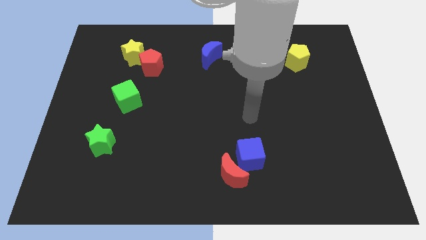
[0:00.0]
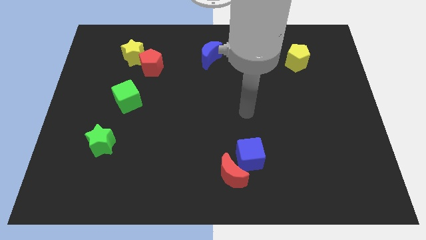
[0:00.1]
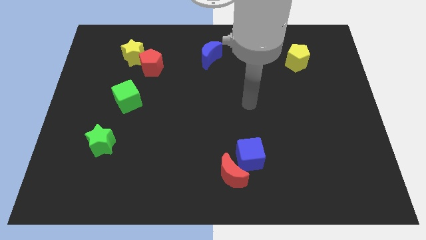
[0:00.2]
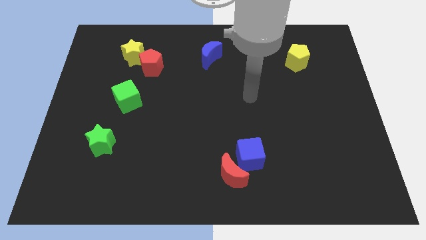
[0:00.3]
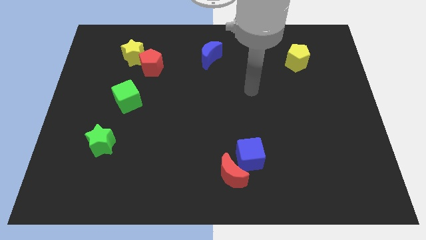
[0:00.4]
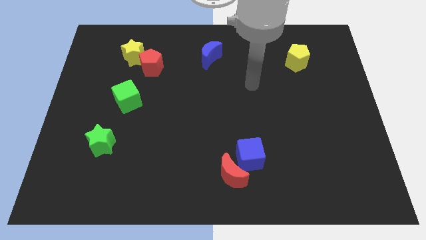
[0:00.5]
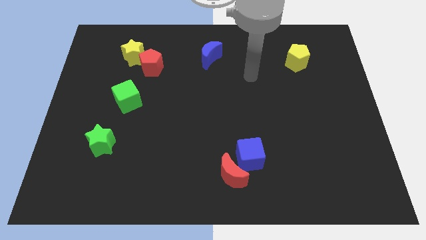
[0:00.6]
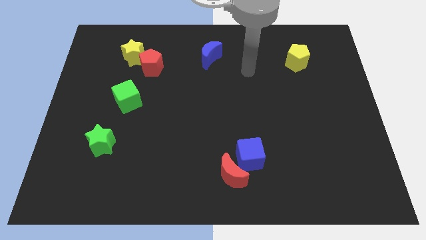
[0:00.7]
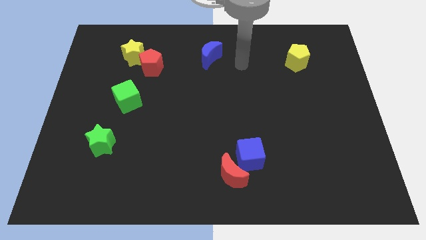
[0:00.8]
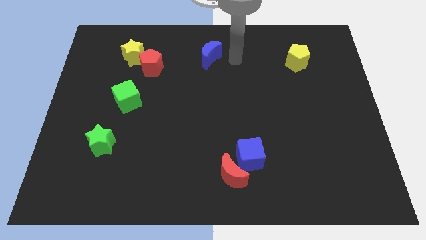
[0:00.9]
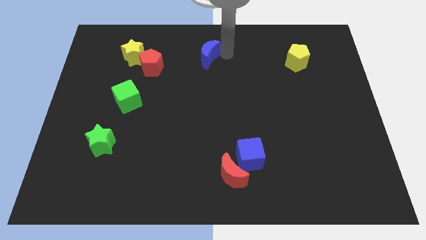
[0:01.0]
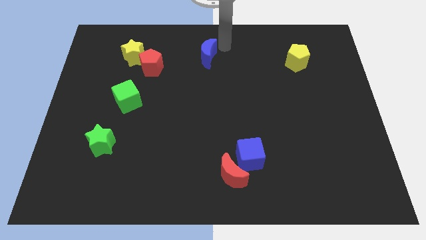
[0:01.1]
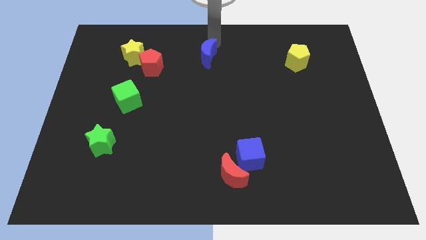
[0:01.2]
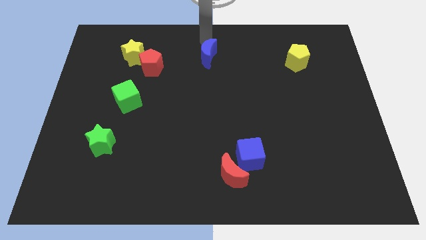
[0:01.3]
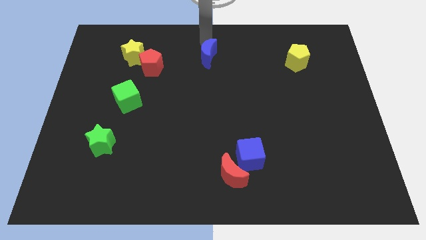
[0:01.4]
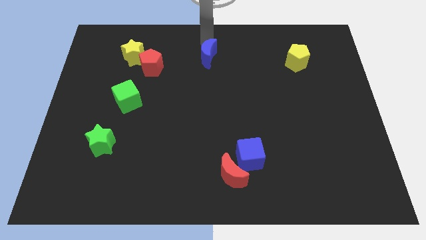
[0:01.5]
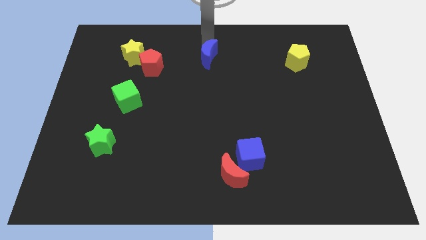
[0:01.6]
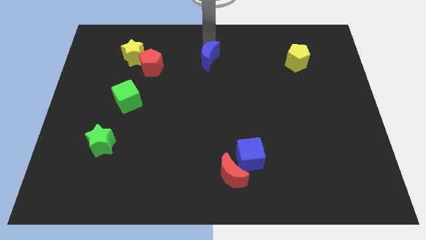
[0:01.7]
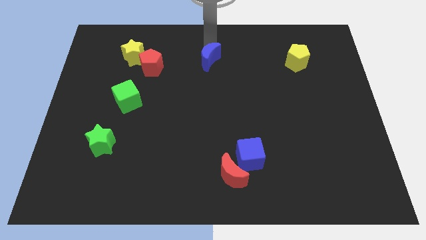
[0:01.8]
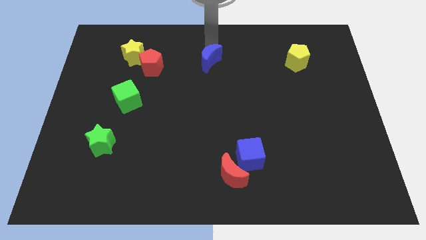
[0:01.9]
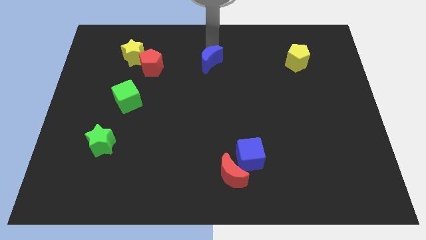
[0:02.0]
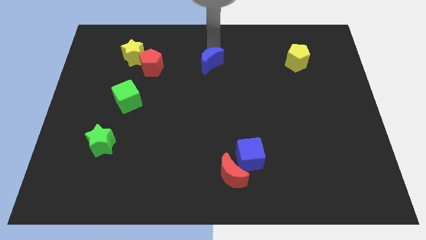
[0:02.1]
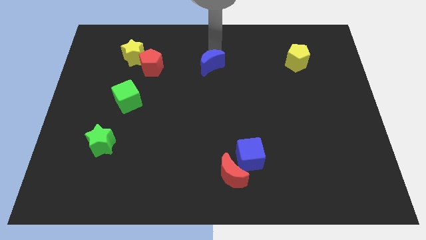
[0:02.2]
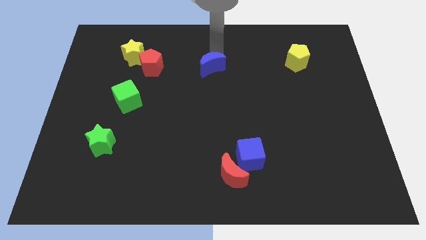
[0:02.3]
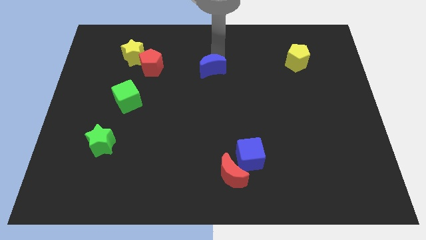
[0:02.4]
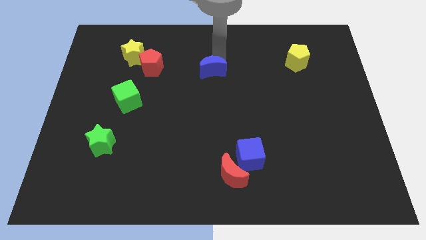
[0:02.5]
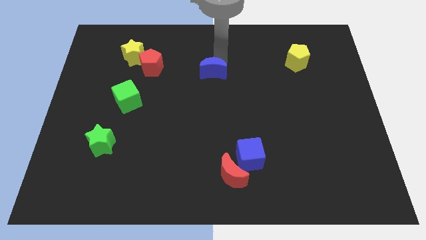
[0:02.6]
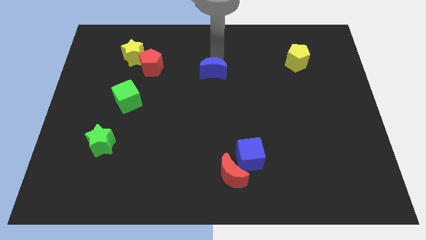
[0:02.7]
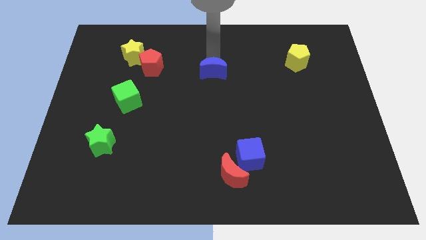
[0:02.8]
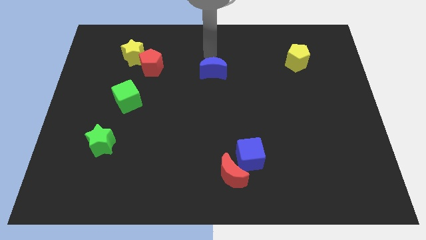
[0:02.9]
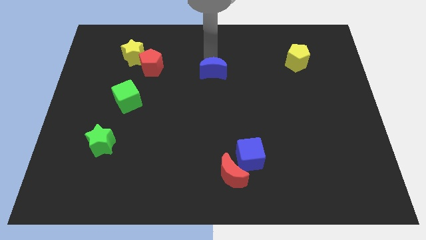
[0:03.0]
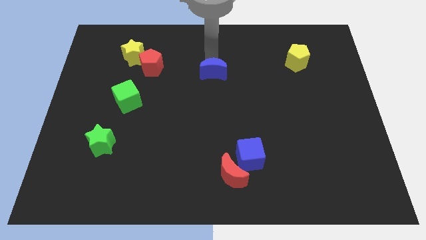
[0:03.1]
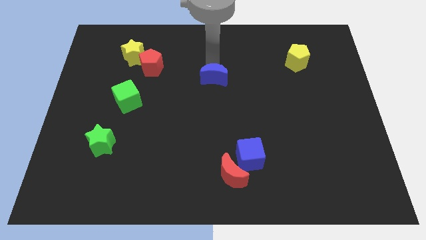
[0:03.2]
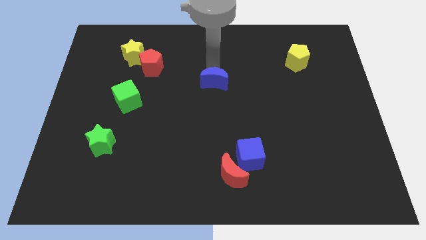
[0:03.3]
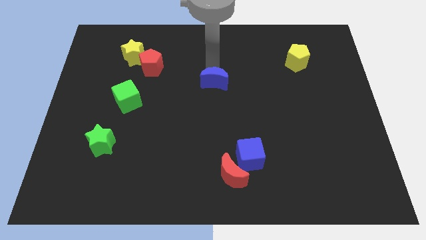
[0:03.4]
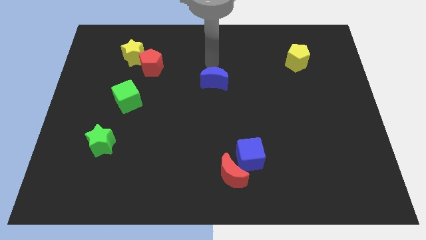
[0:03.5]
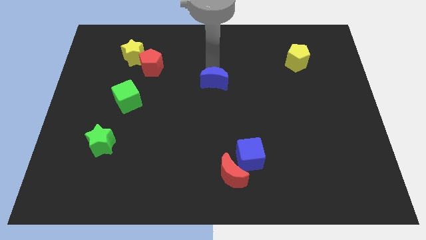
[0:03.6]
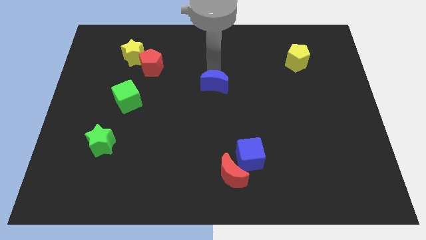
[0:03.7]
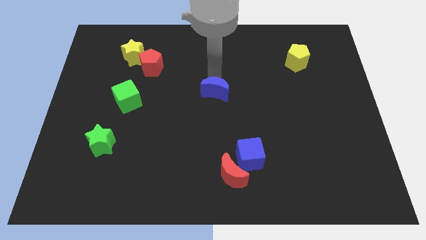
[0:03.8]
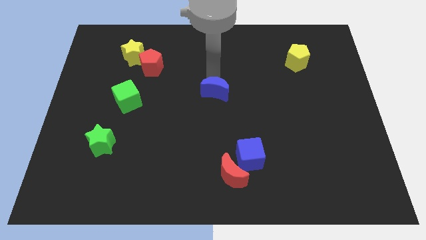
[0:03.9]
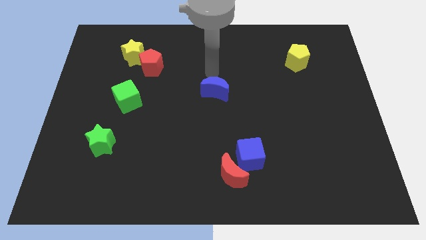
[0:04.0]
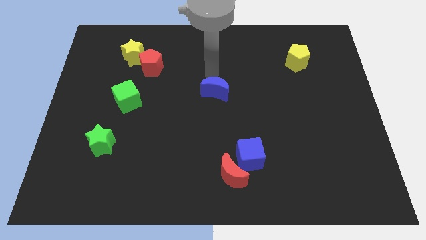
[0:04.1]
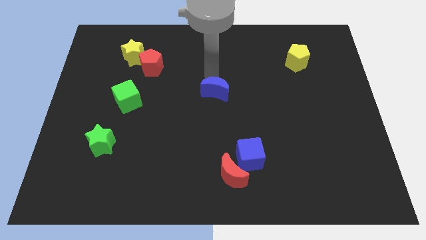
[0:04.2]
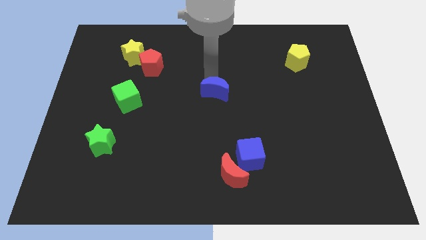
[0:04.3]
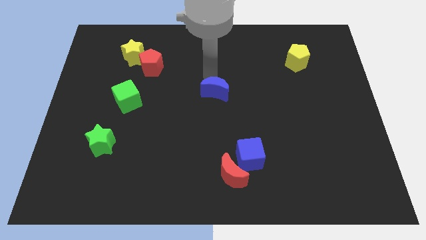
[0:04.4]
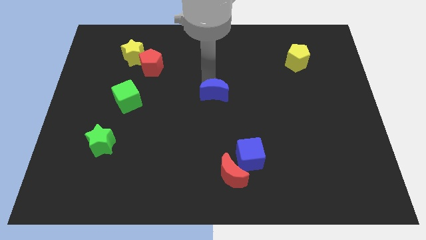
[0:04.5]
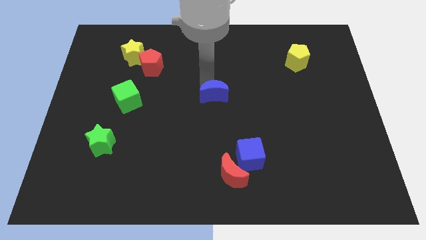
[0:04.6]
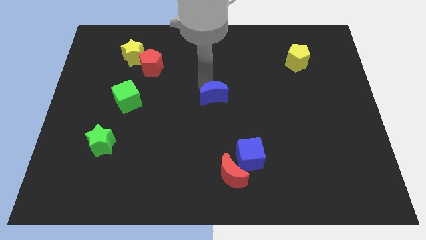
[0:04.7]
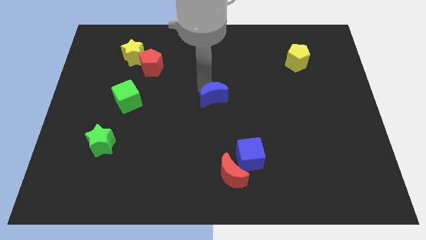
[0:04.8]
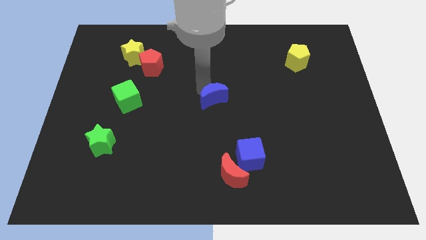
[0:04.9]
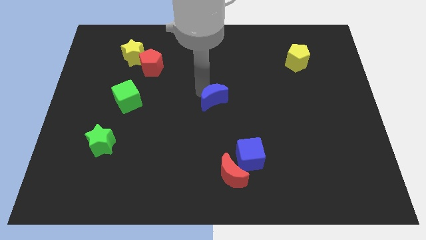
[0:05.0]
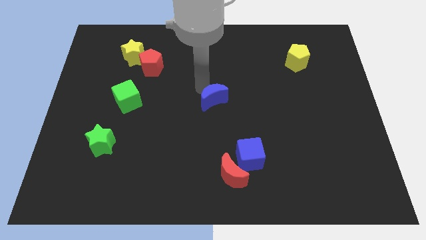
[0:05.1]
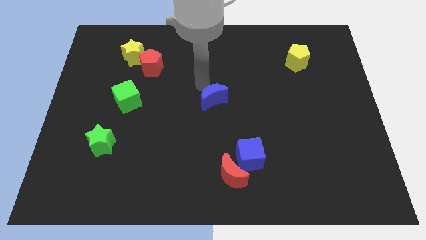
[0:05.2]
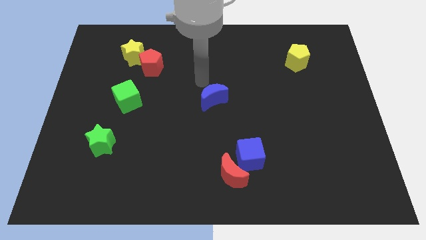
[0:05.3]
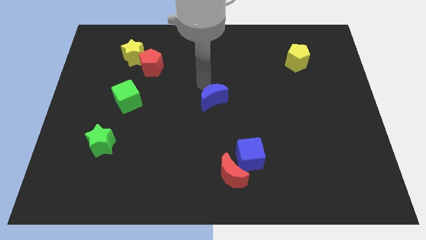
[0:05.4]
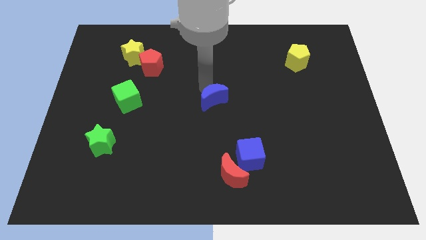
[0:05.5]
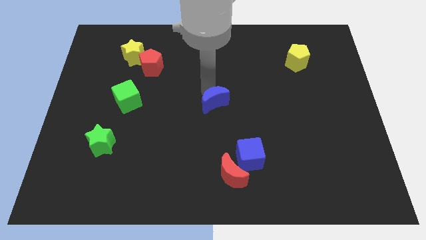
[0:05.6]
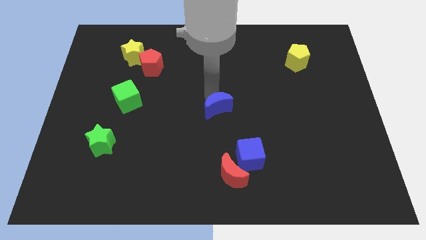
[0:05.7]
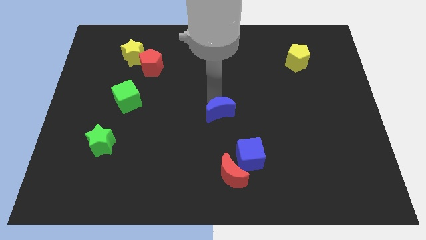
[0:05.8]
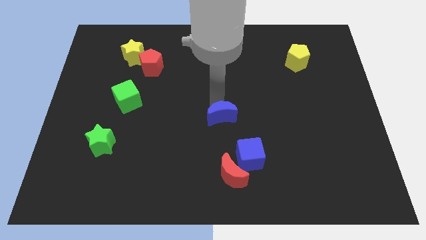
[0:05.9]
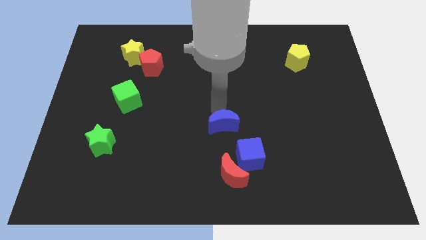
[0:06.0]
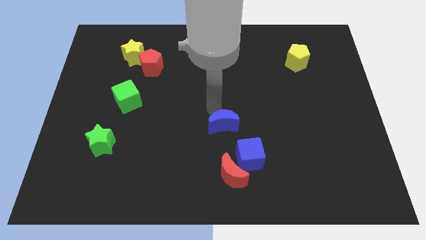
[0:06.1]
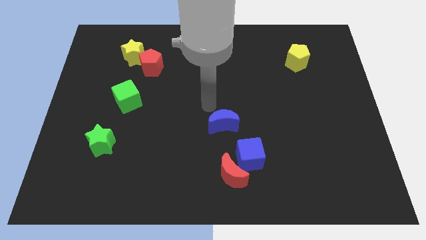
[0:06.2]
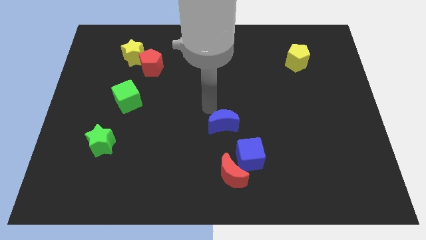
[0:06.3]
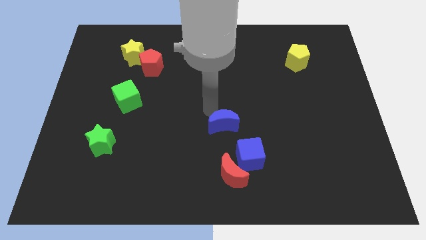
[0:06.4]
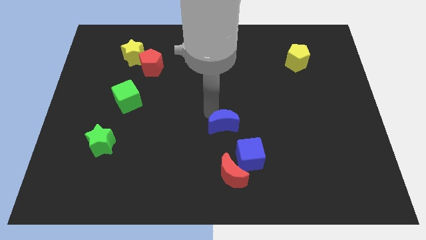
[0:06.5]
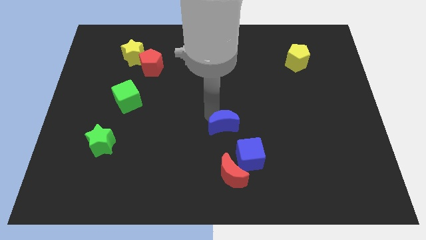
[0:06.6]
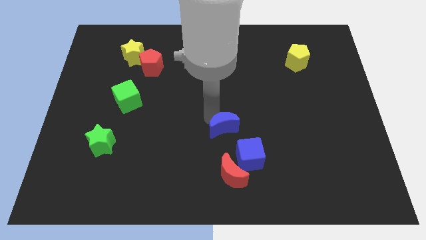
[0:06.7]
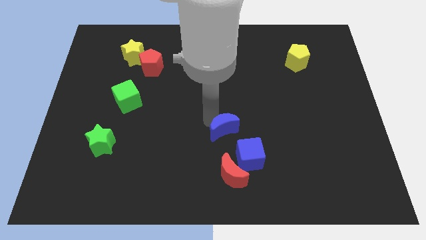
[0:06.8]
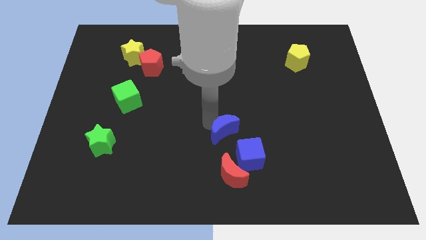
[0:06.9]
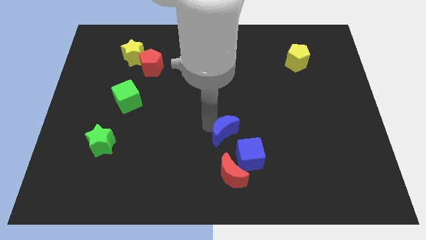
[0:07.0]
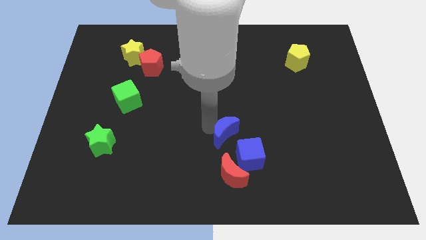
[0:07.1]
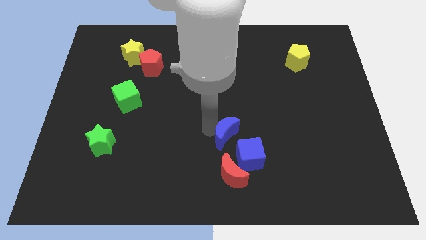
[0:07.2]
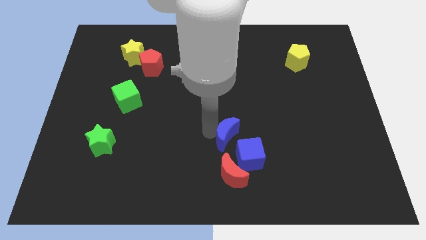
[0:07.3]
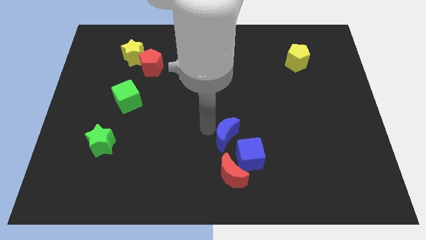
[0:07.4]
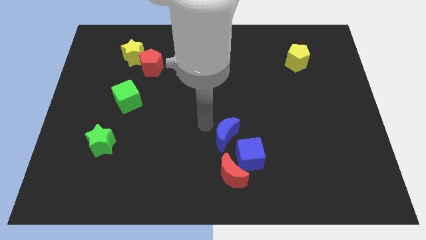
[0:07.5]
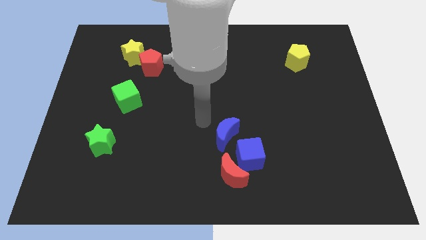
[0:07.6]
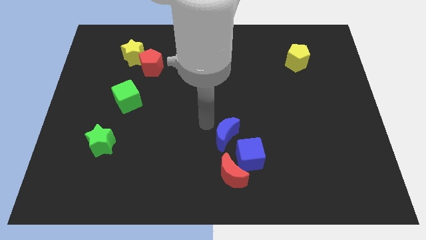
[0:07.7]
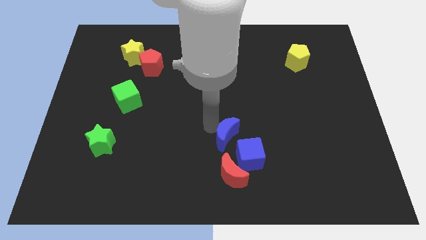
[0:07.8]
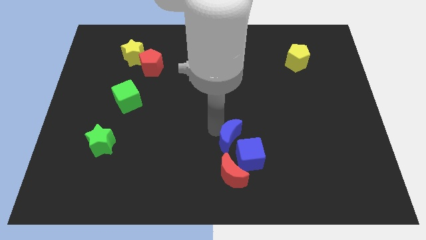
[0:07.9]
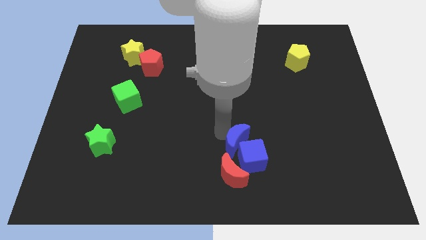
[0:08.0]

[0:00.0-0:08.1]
slide the blue moon close to the blue cube

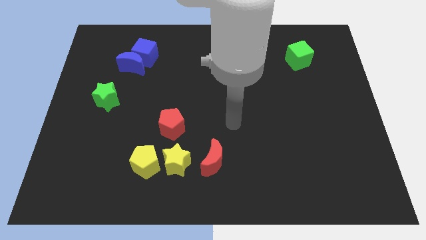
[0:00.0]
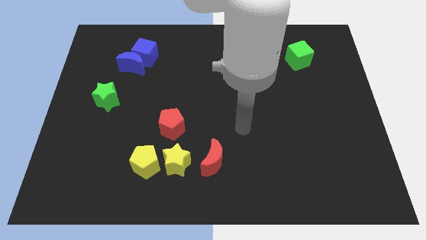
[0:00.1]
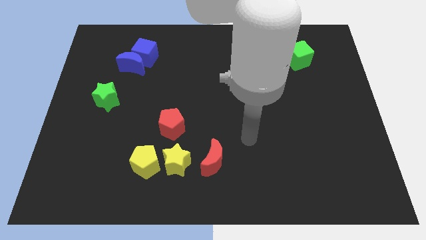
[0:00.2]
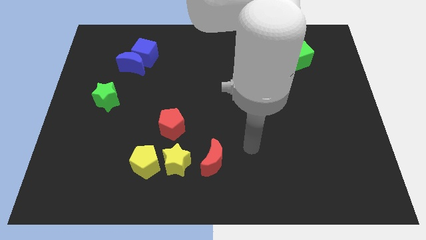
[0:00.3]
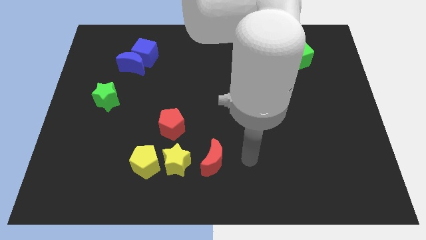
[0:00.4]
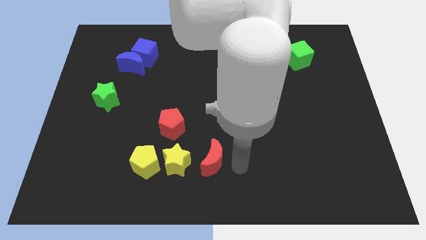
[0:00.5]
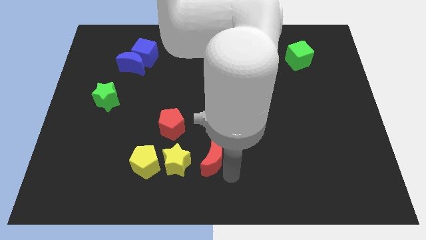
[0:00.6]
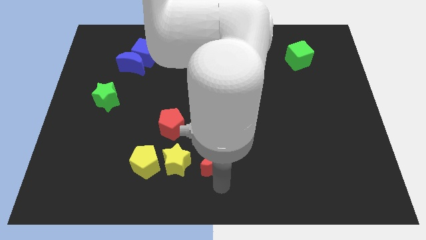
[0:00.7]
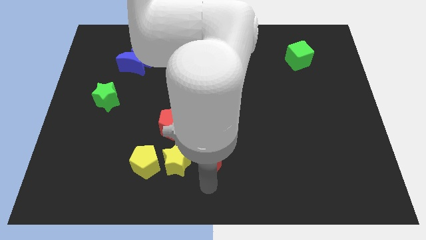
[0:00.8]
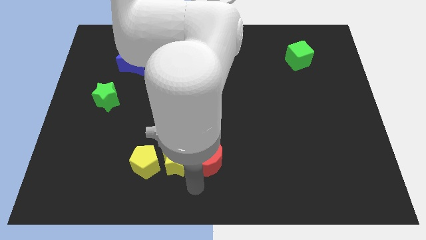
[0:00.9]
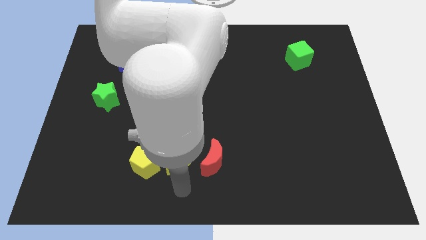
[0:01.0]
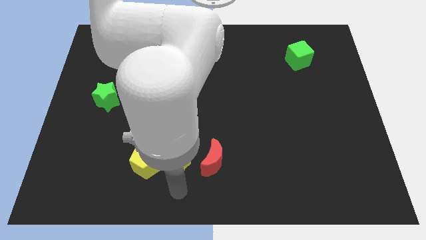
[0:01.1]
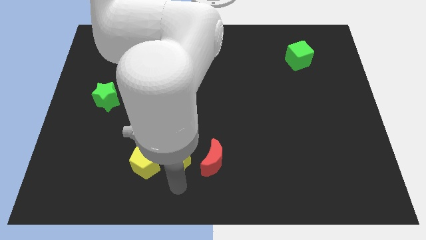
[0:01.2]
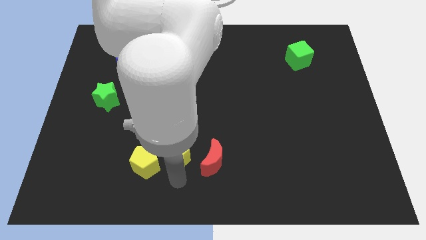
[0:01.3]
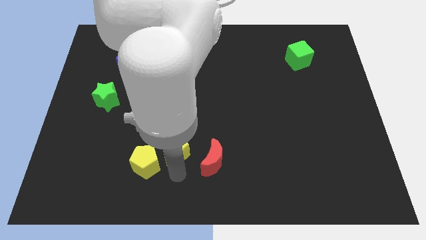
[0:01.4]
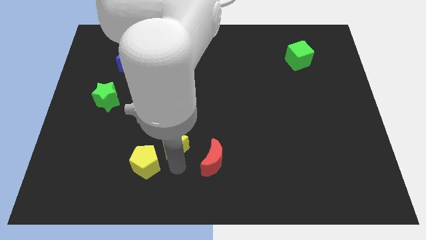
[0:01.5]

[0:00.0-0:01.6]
put the yellow star towards the red pentagon
